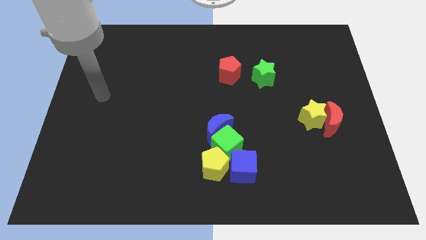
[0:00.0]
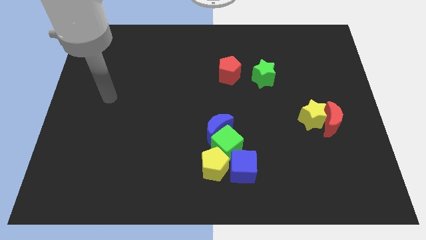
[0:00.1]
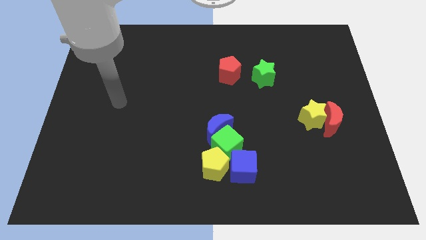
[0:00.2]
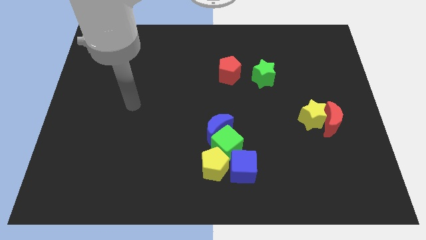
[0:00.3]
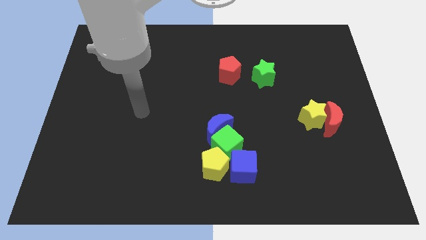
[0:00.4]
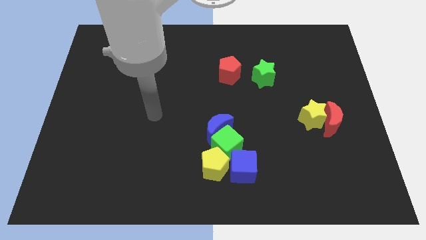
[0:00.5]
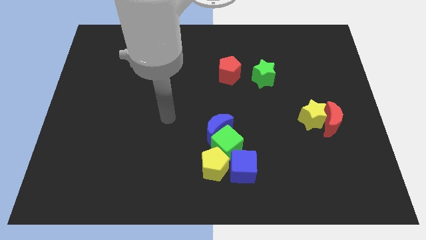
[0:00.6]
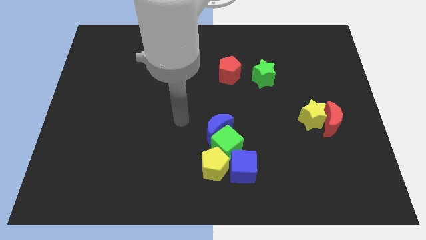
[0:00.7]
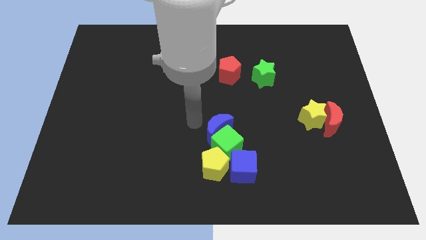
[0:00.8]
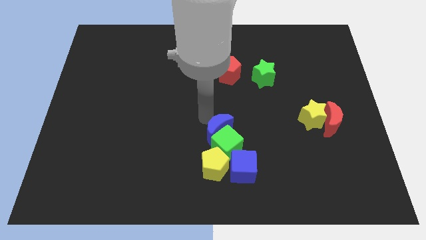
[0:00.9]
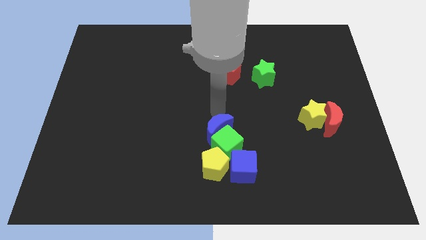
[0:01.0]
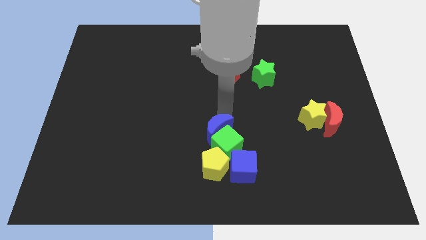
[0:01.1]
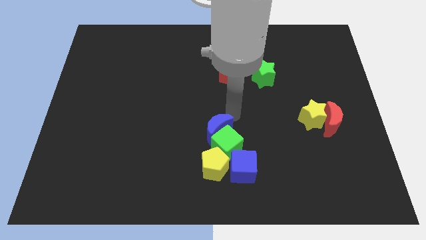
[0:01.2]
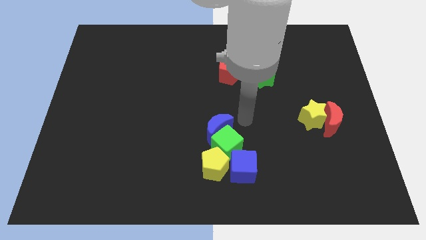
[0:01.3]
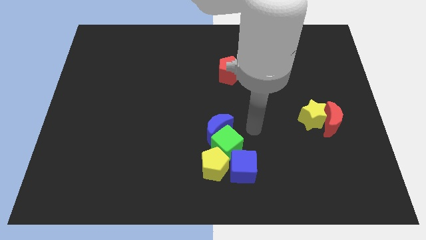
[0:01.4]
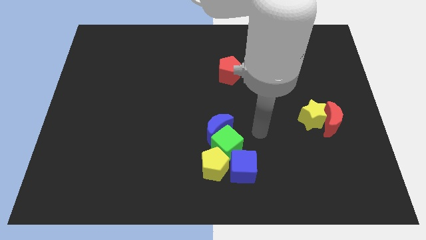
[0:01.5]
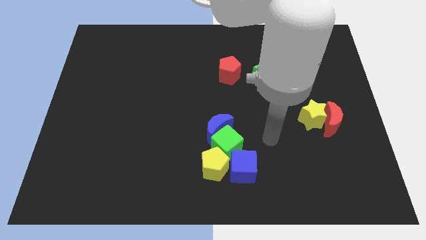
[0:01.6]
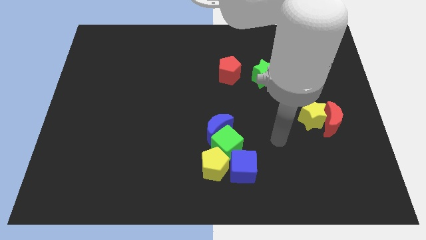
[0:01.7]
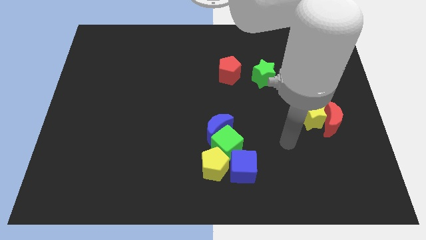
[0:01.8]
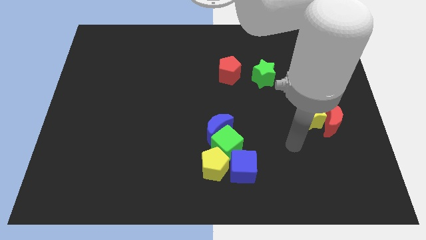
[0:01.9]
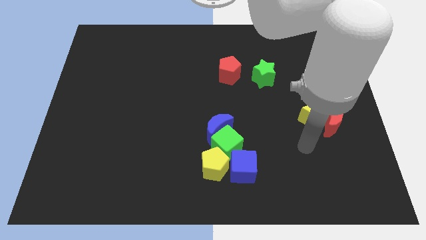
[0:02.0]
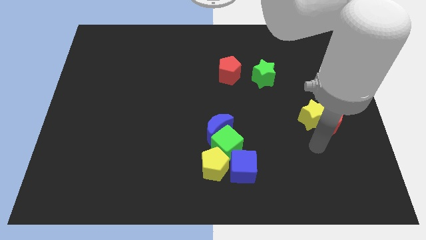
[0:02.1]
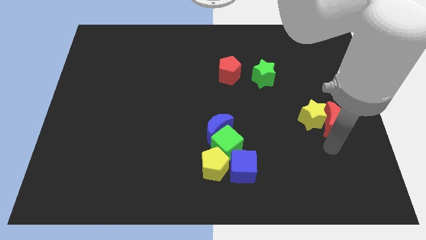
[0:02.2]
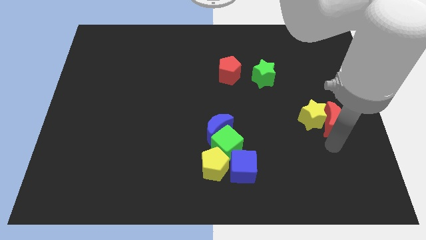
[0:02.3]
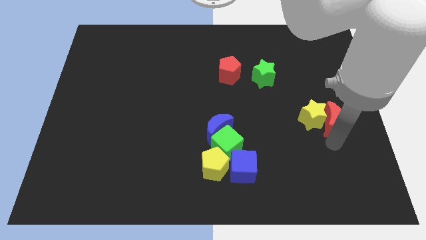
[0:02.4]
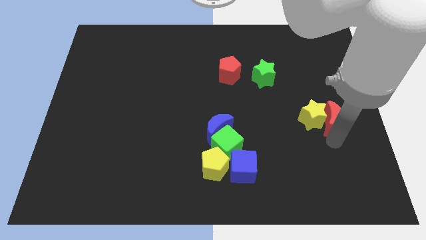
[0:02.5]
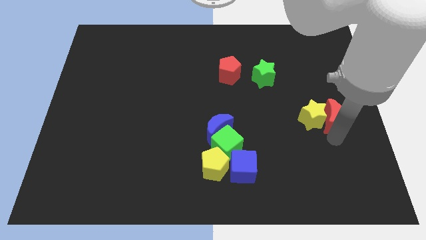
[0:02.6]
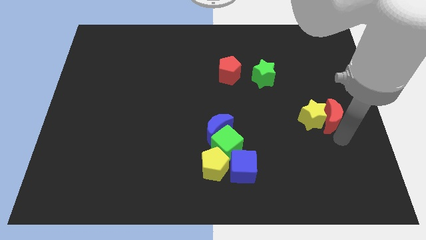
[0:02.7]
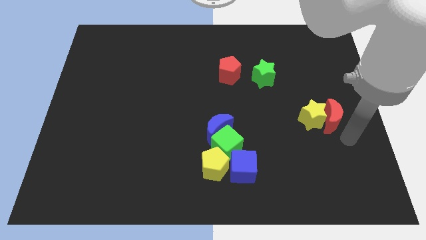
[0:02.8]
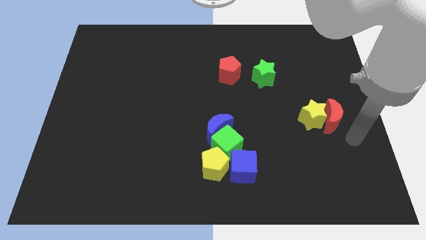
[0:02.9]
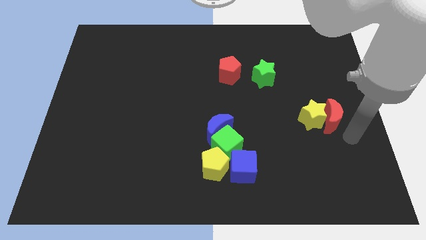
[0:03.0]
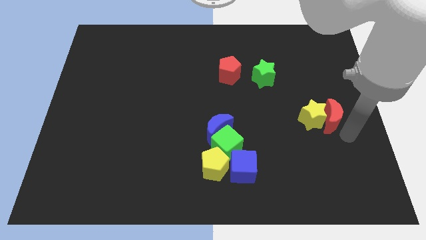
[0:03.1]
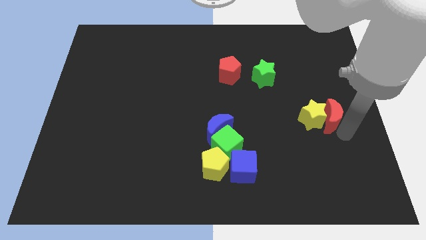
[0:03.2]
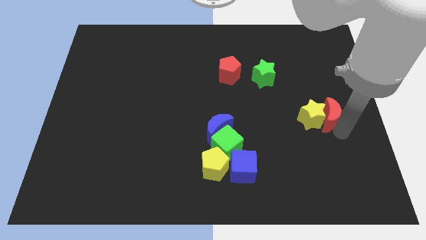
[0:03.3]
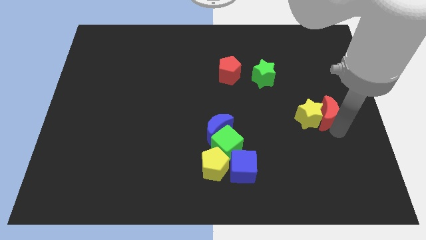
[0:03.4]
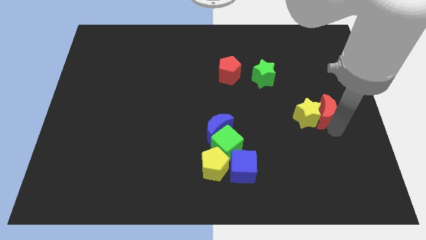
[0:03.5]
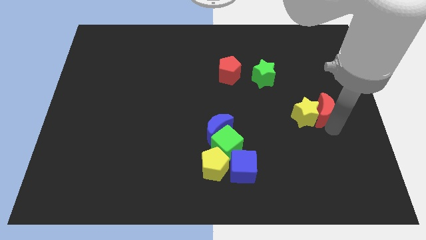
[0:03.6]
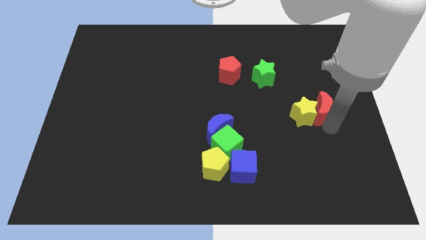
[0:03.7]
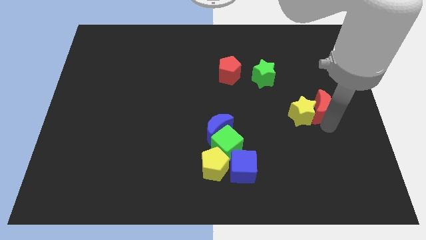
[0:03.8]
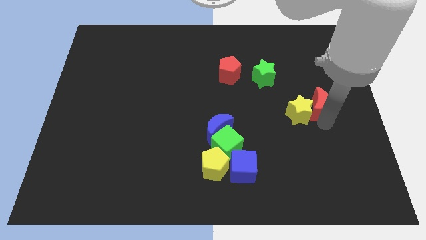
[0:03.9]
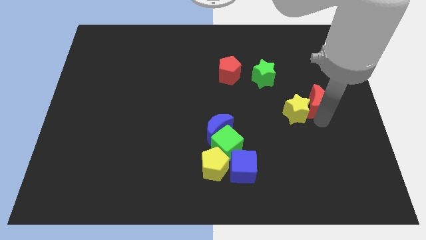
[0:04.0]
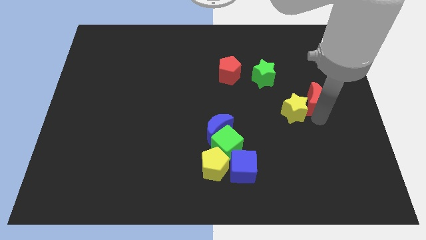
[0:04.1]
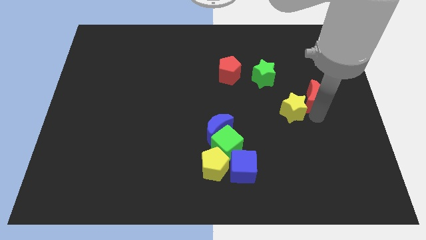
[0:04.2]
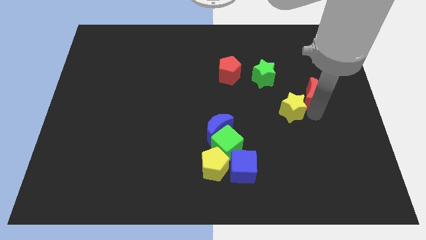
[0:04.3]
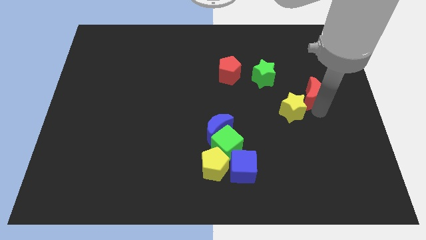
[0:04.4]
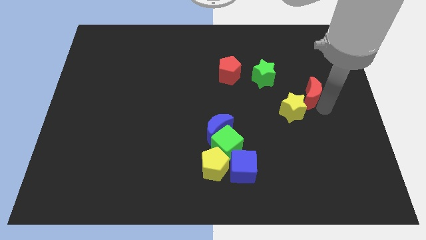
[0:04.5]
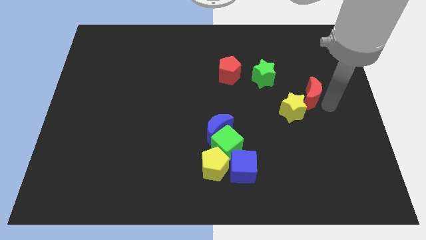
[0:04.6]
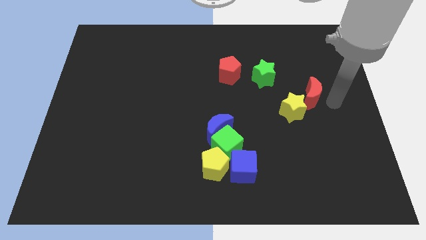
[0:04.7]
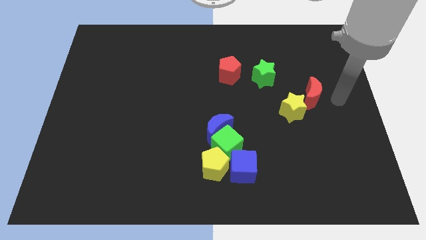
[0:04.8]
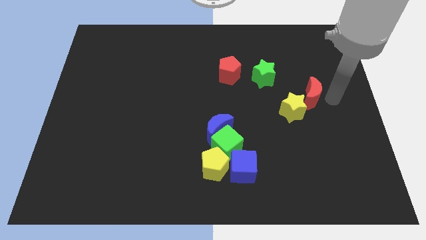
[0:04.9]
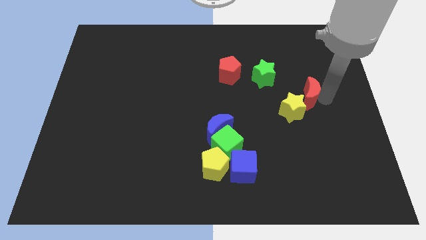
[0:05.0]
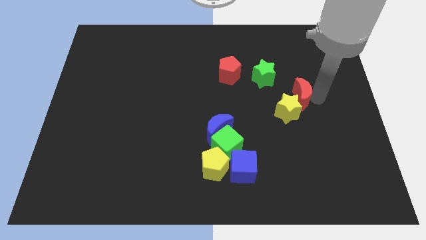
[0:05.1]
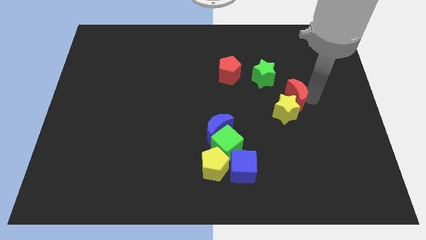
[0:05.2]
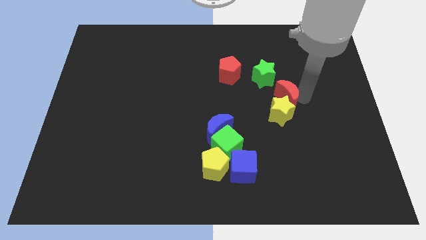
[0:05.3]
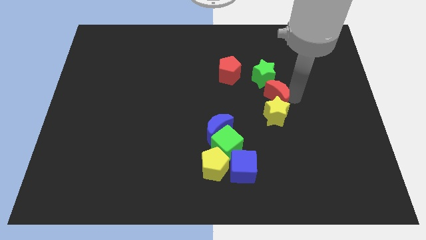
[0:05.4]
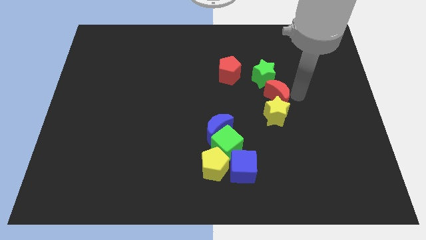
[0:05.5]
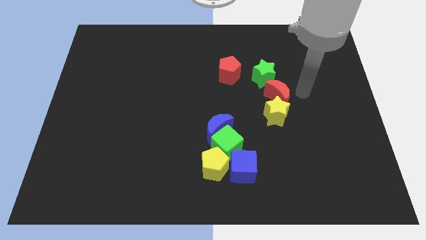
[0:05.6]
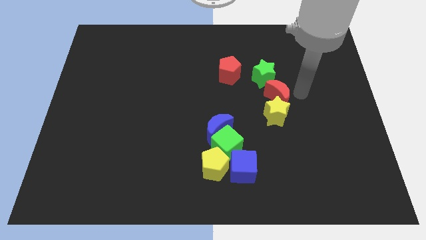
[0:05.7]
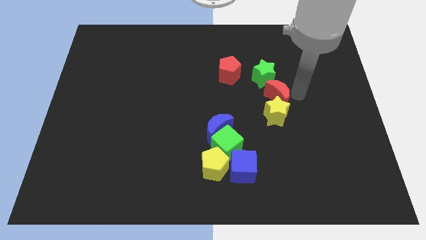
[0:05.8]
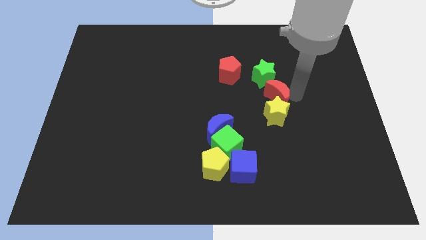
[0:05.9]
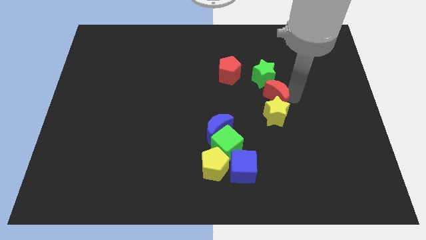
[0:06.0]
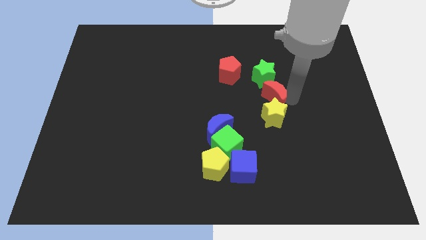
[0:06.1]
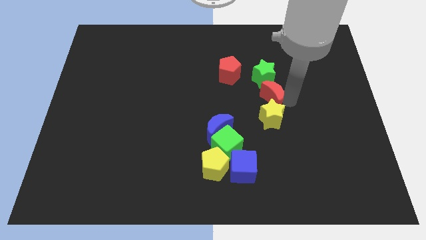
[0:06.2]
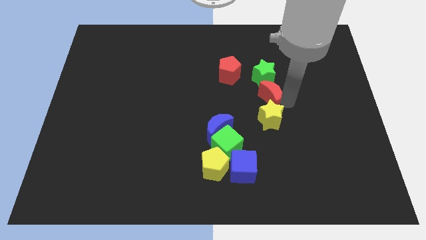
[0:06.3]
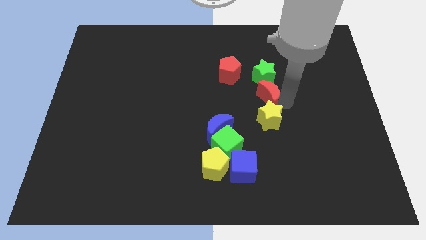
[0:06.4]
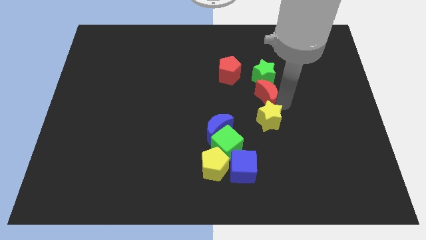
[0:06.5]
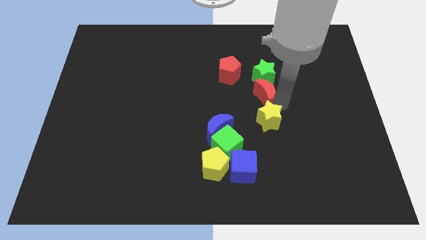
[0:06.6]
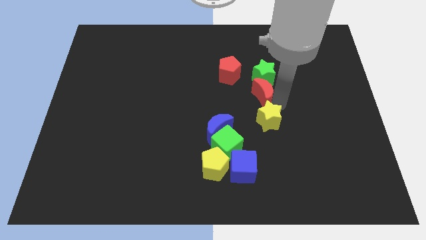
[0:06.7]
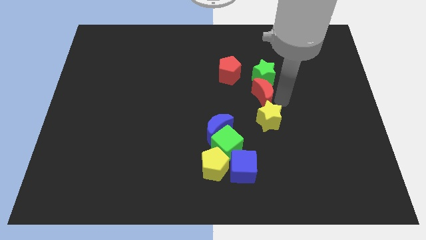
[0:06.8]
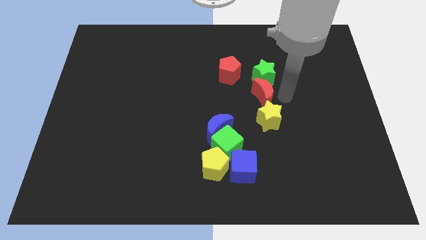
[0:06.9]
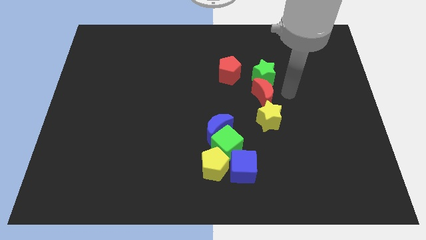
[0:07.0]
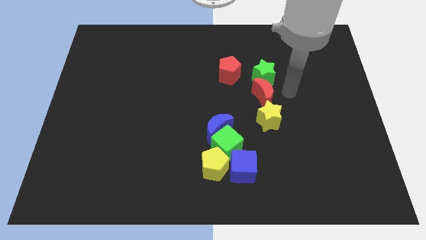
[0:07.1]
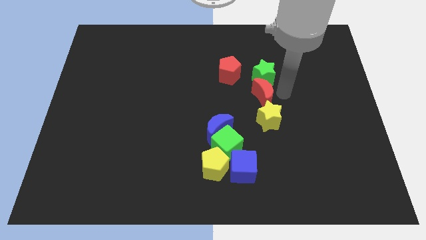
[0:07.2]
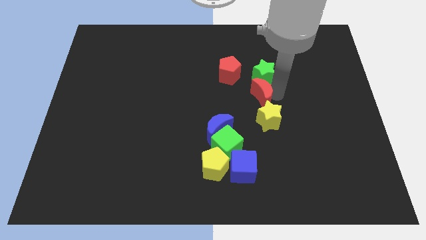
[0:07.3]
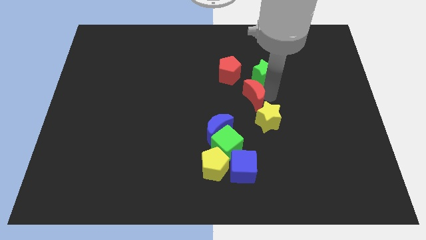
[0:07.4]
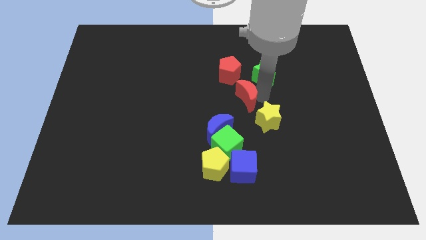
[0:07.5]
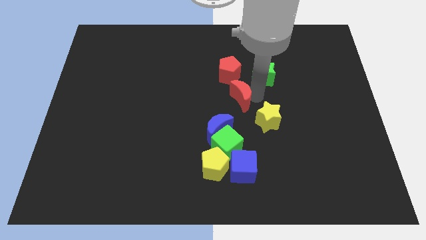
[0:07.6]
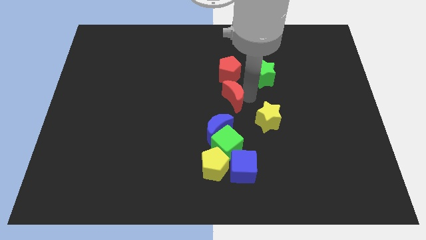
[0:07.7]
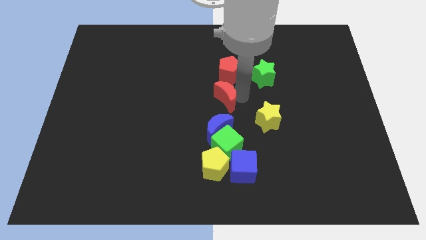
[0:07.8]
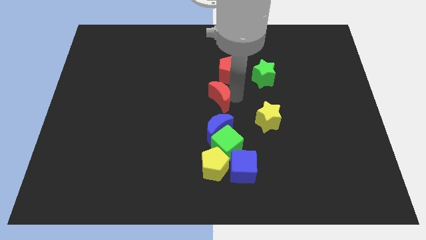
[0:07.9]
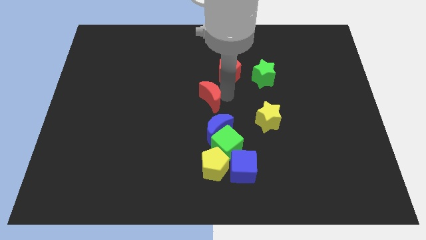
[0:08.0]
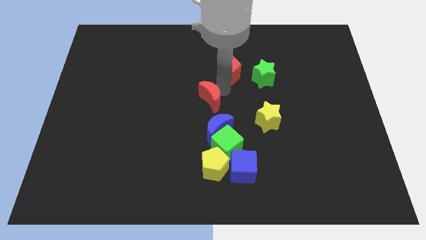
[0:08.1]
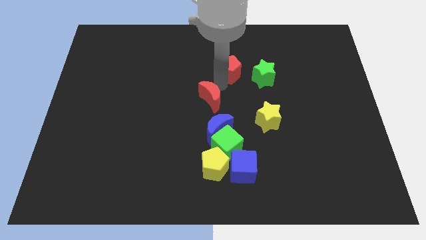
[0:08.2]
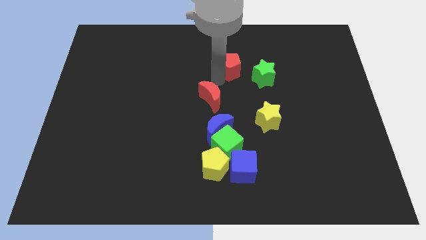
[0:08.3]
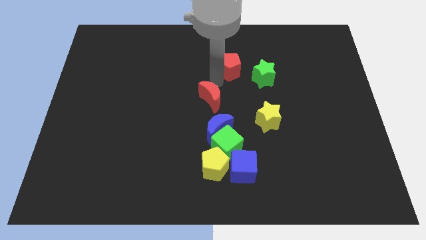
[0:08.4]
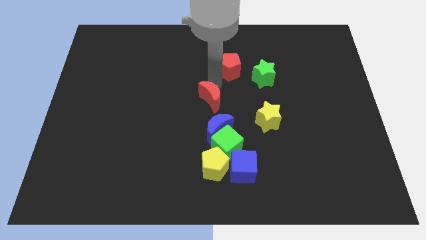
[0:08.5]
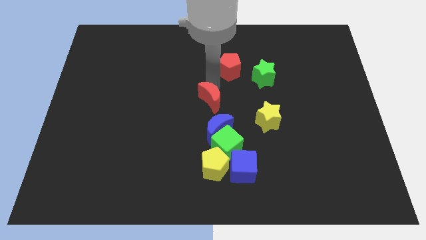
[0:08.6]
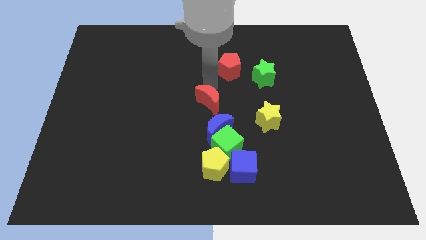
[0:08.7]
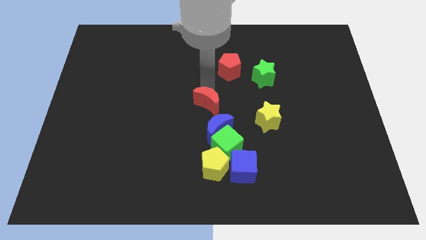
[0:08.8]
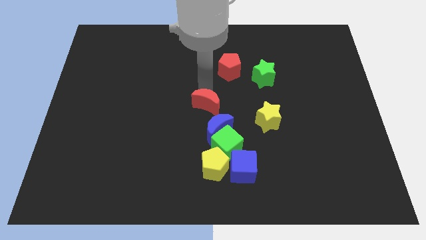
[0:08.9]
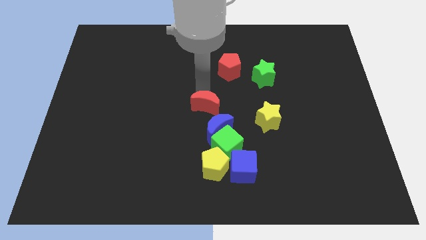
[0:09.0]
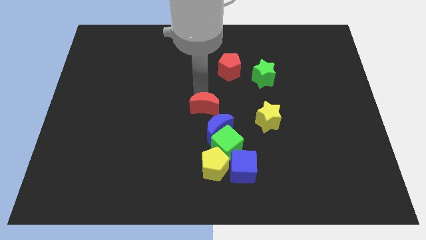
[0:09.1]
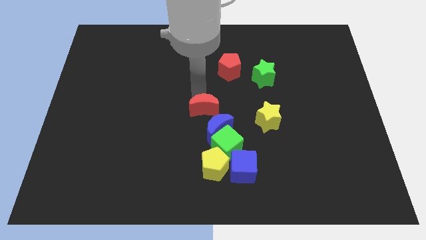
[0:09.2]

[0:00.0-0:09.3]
slide the red moon to the top left side of the green cube
